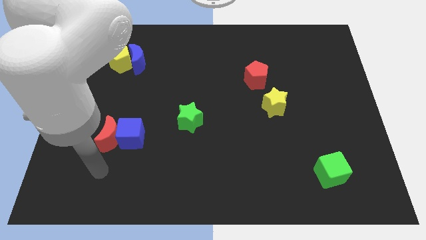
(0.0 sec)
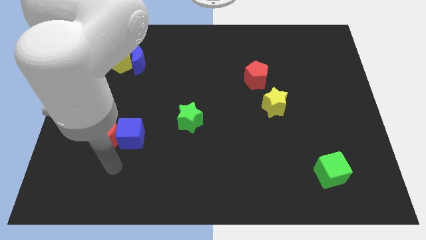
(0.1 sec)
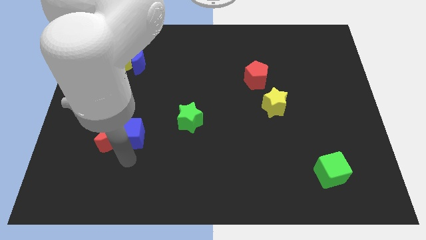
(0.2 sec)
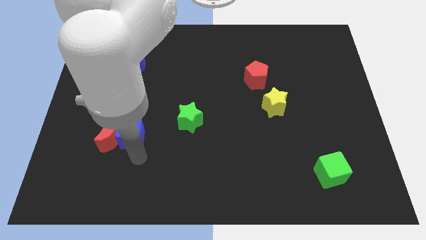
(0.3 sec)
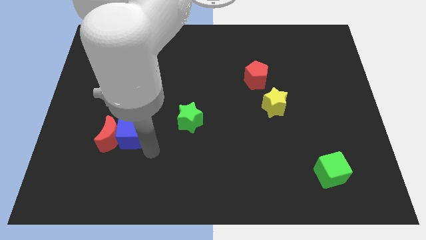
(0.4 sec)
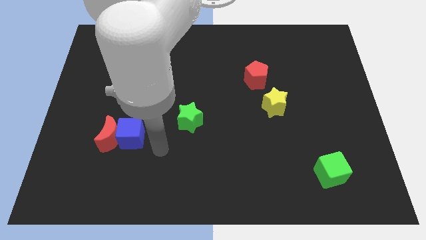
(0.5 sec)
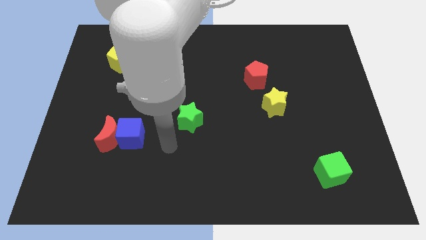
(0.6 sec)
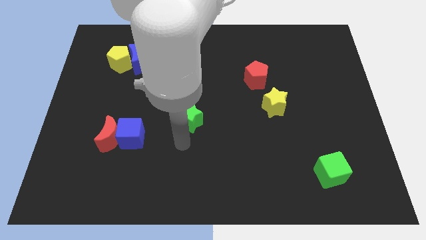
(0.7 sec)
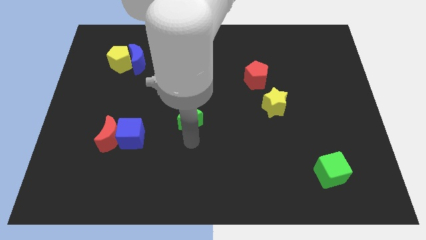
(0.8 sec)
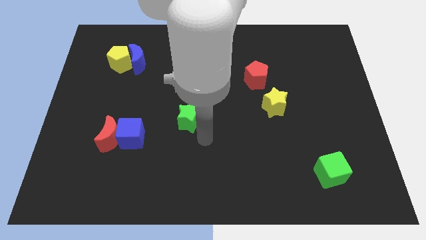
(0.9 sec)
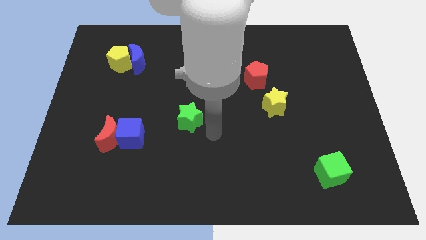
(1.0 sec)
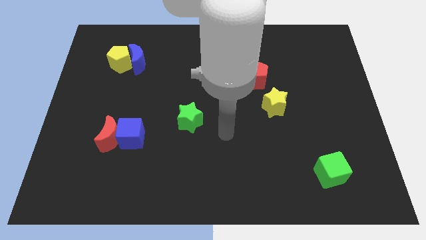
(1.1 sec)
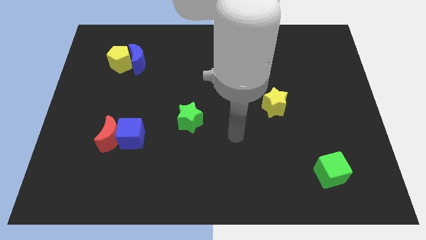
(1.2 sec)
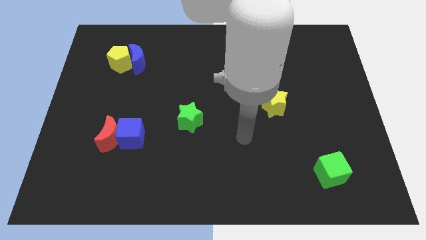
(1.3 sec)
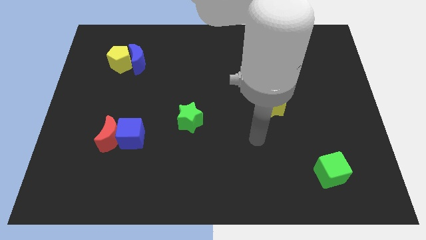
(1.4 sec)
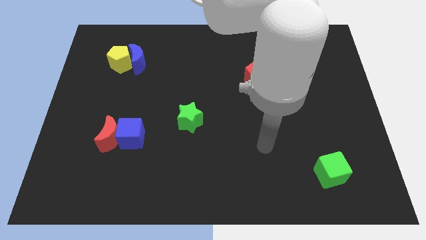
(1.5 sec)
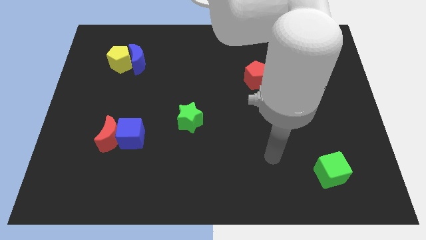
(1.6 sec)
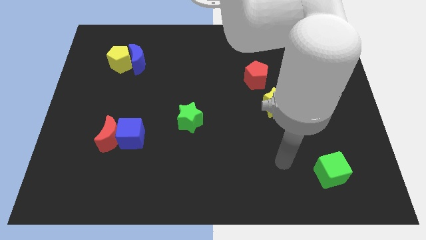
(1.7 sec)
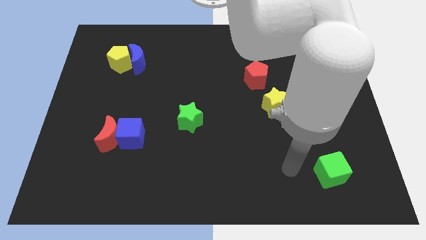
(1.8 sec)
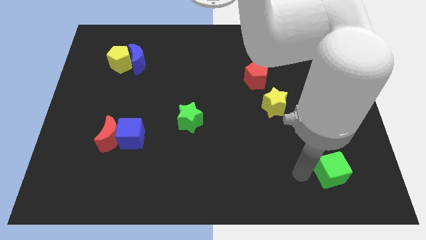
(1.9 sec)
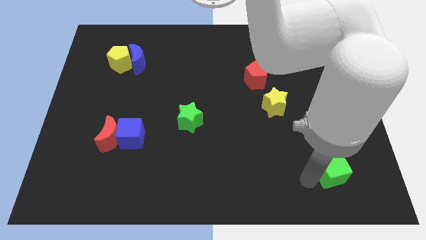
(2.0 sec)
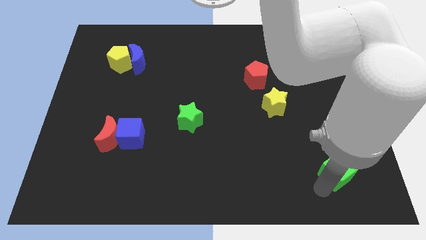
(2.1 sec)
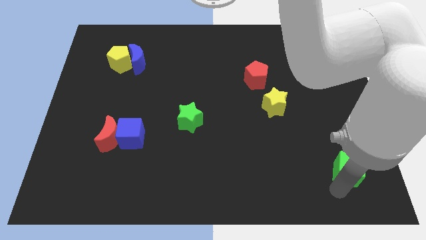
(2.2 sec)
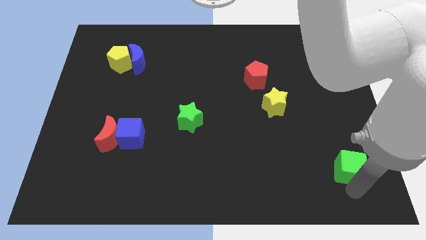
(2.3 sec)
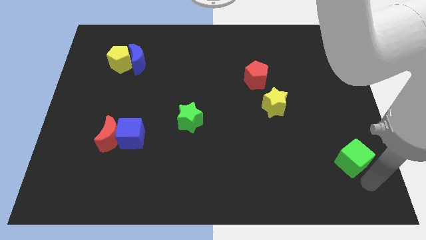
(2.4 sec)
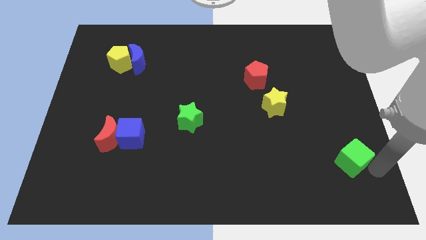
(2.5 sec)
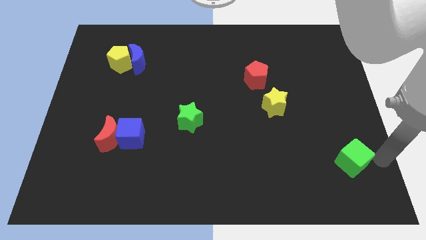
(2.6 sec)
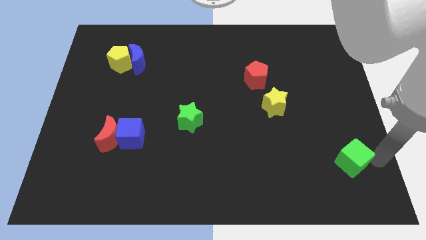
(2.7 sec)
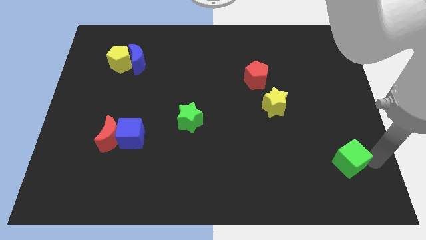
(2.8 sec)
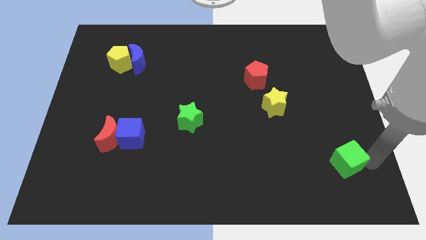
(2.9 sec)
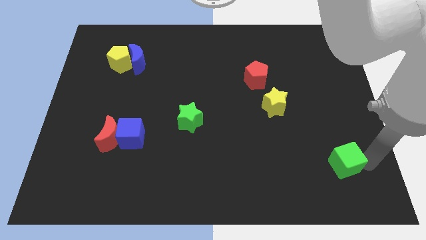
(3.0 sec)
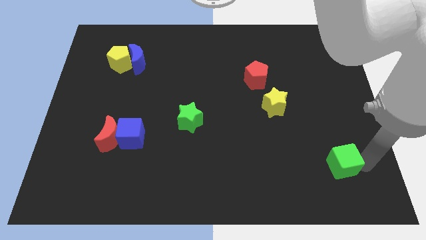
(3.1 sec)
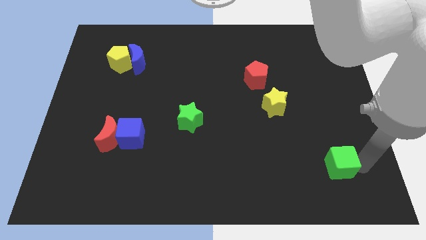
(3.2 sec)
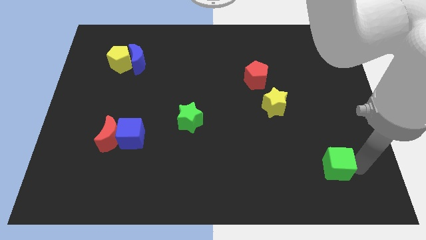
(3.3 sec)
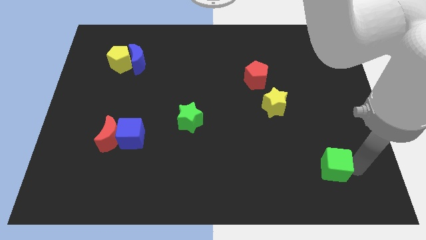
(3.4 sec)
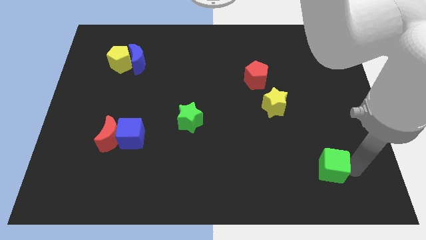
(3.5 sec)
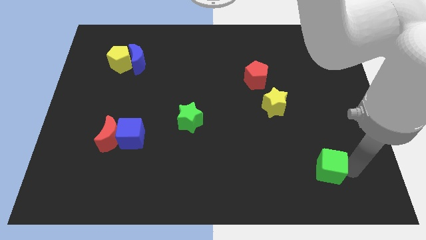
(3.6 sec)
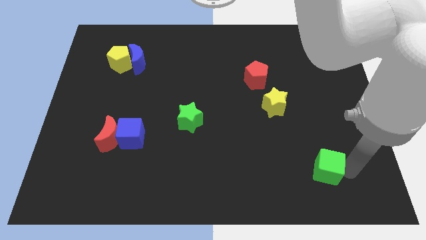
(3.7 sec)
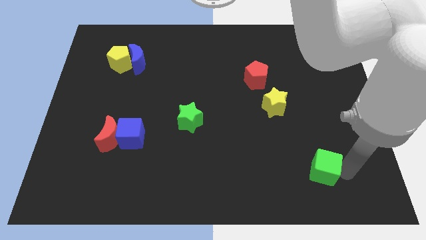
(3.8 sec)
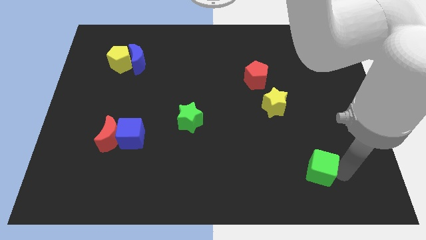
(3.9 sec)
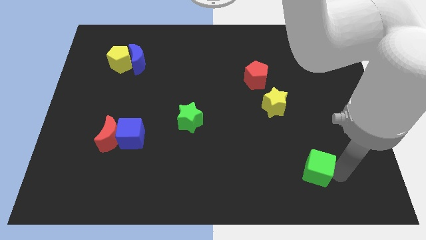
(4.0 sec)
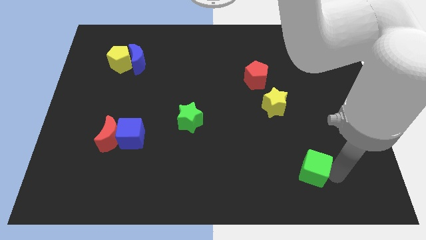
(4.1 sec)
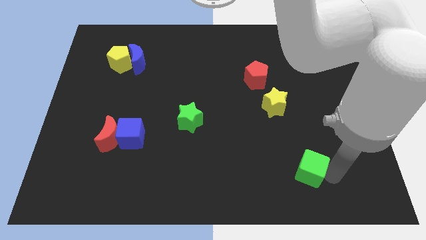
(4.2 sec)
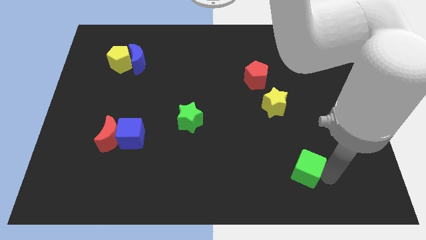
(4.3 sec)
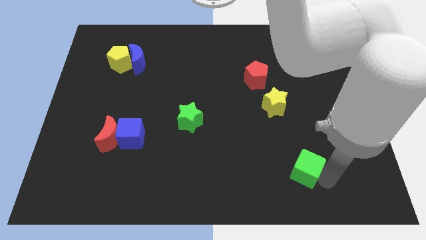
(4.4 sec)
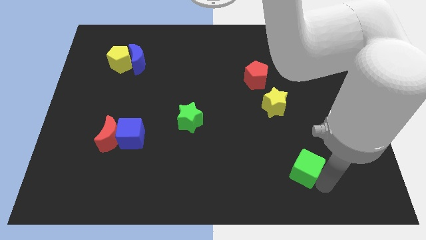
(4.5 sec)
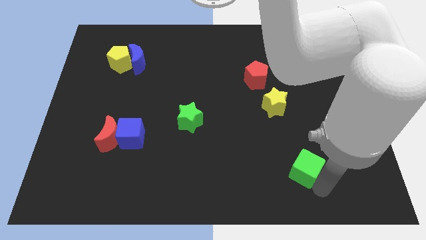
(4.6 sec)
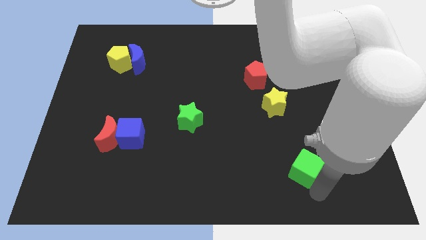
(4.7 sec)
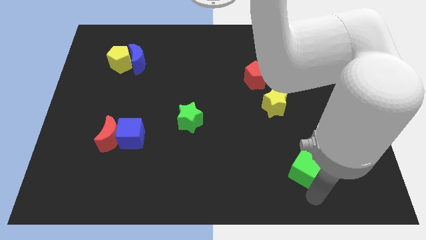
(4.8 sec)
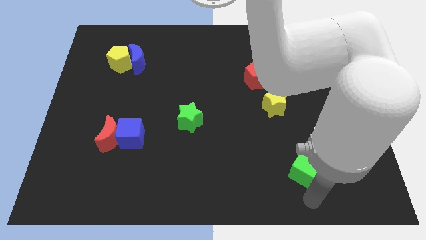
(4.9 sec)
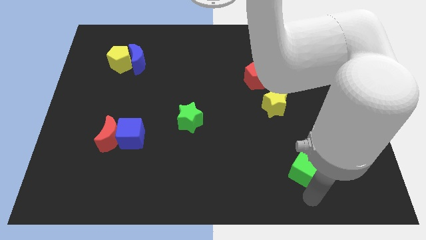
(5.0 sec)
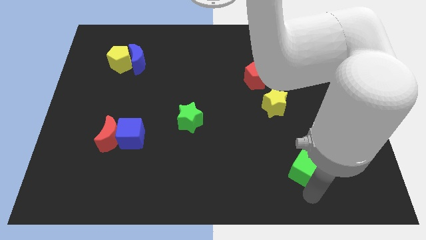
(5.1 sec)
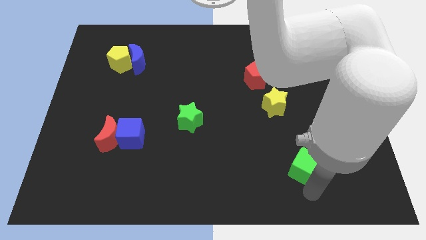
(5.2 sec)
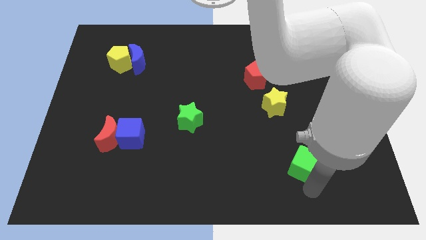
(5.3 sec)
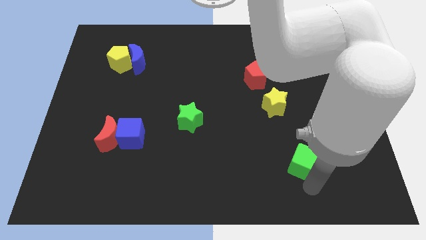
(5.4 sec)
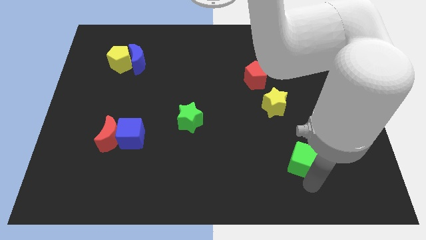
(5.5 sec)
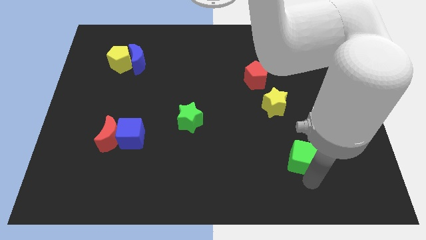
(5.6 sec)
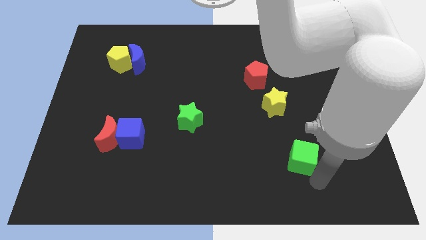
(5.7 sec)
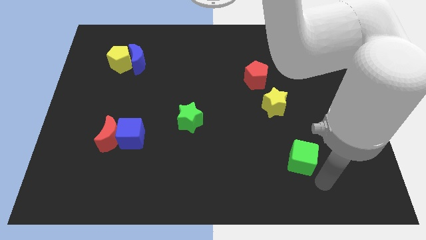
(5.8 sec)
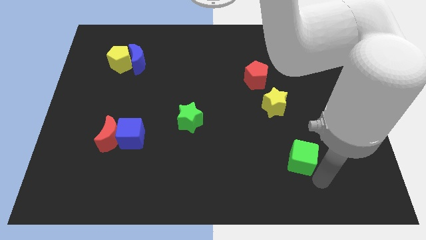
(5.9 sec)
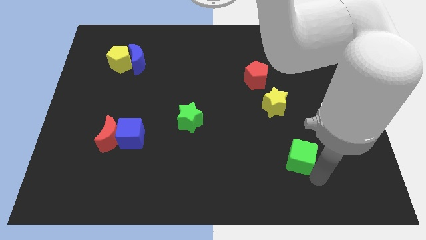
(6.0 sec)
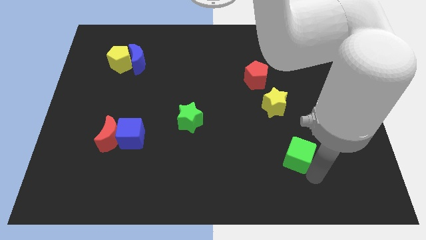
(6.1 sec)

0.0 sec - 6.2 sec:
slightly push the green cube diagonally up and to the left

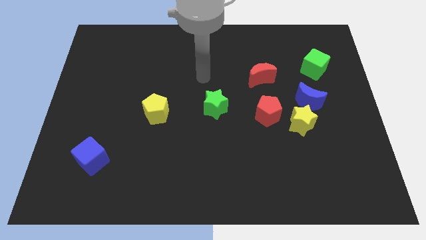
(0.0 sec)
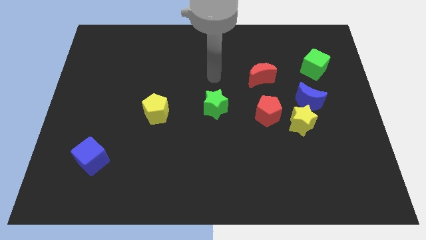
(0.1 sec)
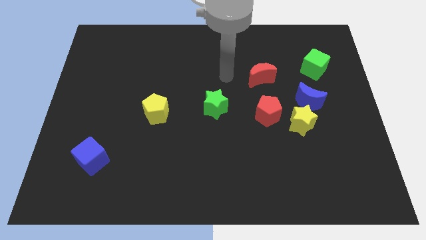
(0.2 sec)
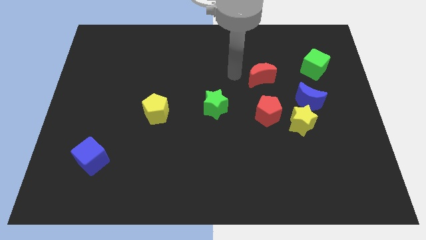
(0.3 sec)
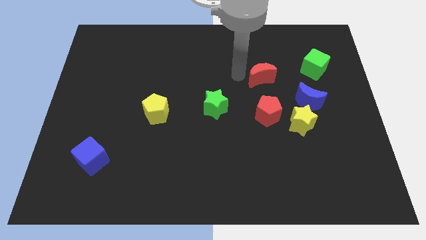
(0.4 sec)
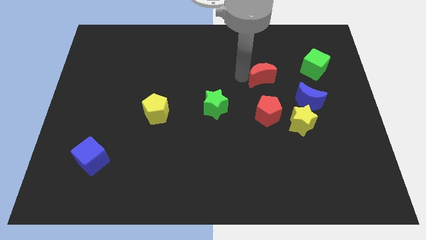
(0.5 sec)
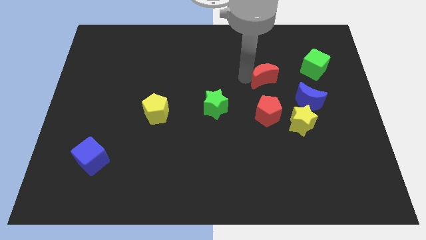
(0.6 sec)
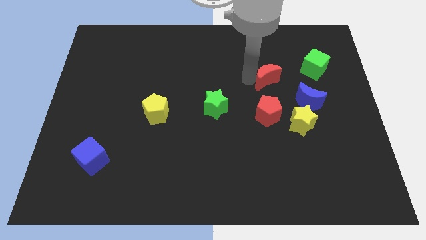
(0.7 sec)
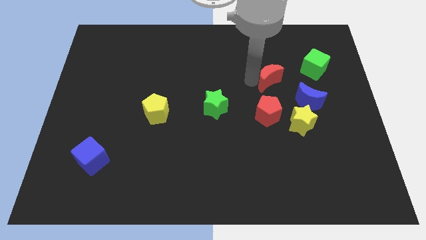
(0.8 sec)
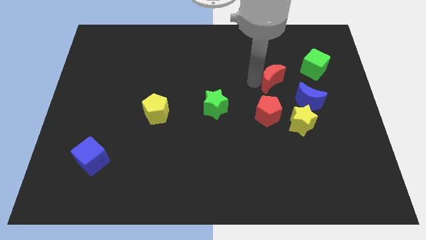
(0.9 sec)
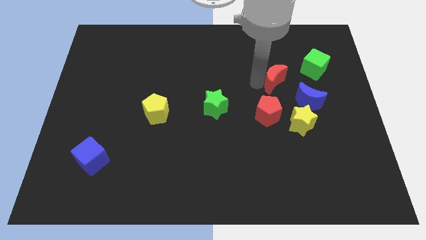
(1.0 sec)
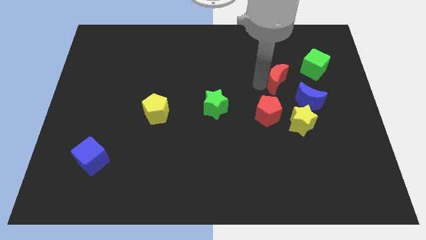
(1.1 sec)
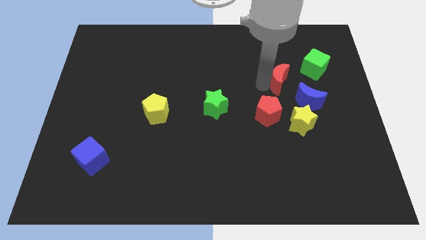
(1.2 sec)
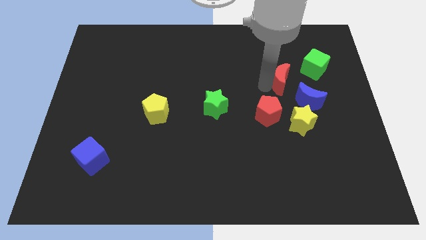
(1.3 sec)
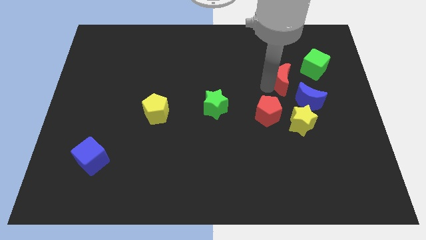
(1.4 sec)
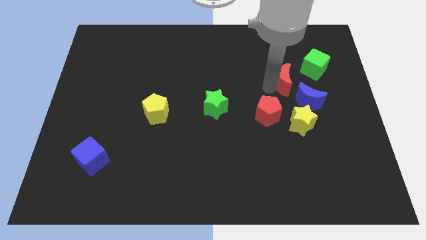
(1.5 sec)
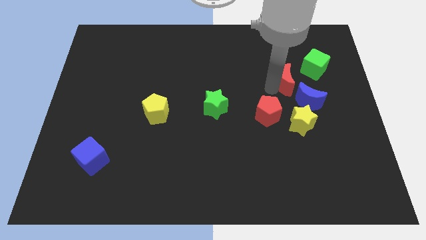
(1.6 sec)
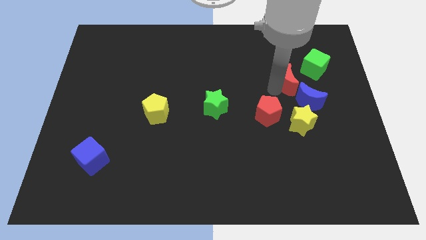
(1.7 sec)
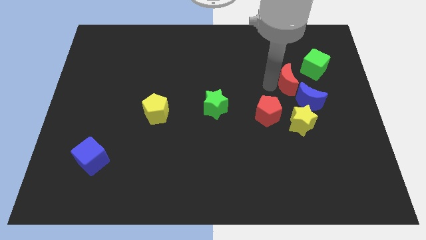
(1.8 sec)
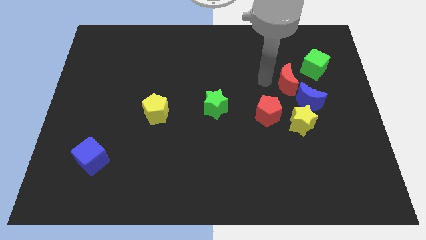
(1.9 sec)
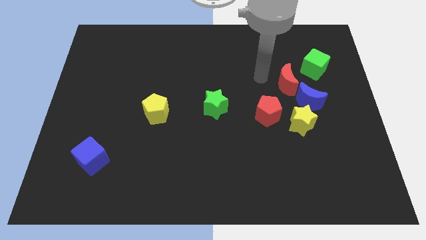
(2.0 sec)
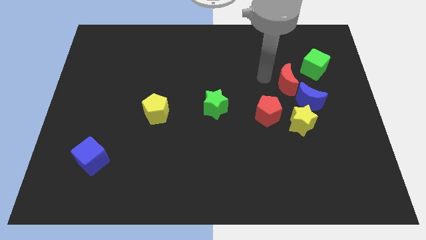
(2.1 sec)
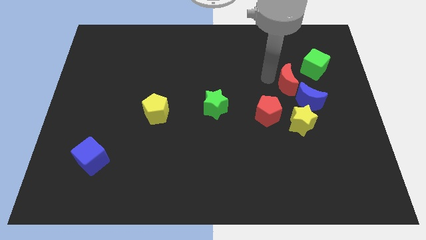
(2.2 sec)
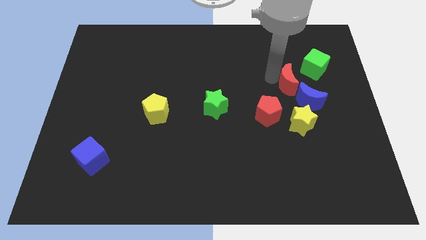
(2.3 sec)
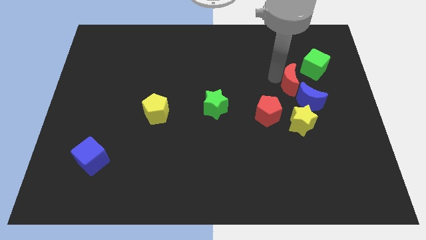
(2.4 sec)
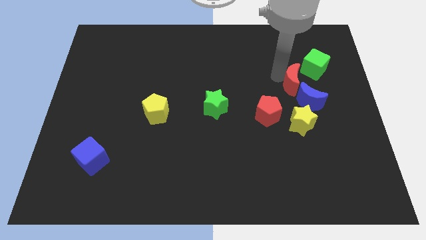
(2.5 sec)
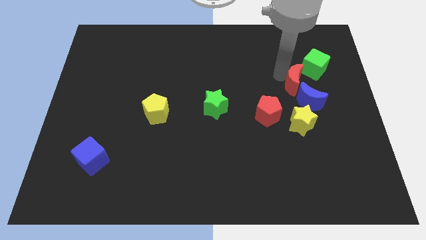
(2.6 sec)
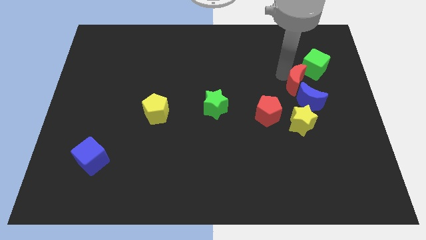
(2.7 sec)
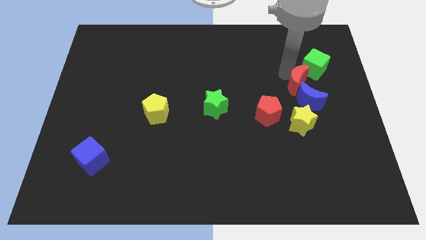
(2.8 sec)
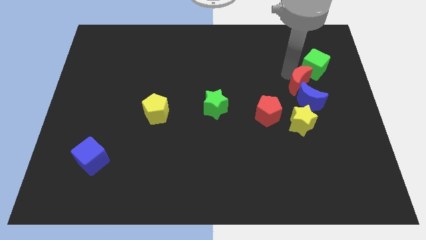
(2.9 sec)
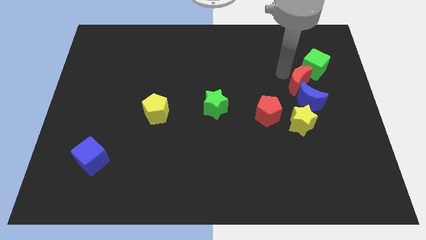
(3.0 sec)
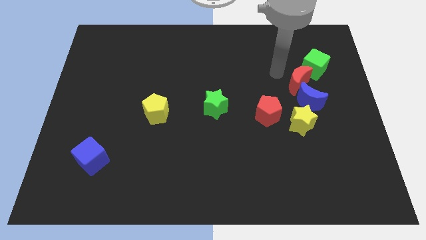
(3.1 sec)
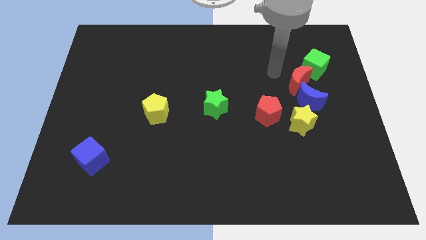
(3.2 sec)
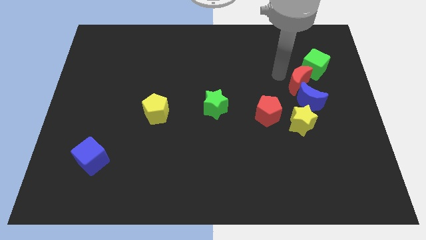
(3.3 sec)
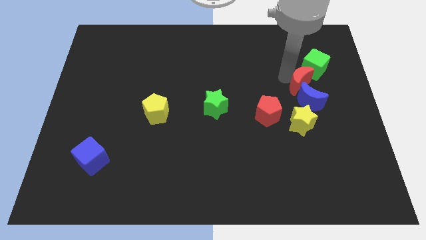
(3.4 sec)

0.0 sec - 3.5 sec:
push the red moon slightly downwards and then right
